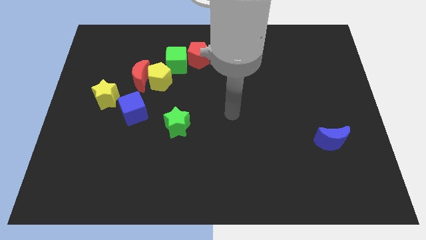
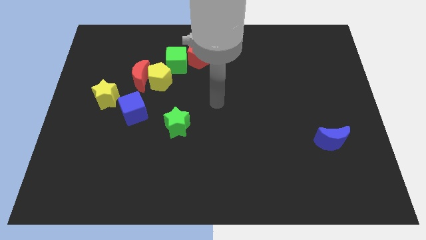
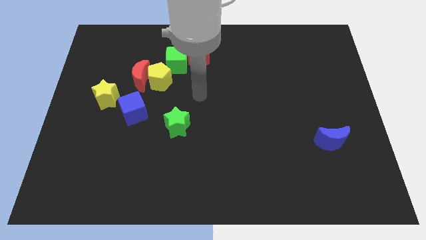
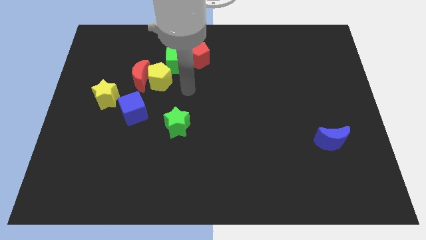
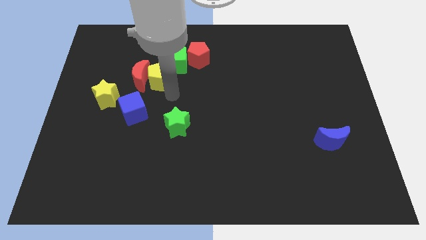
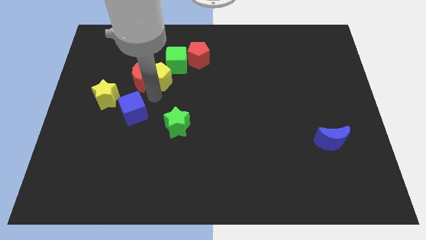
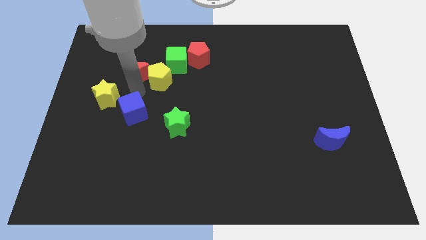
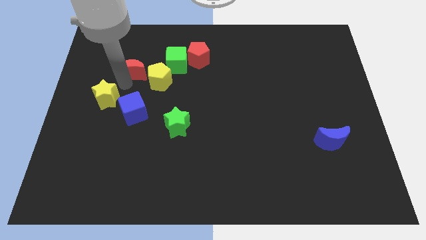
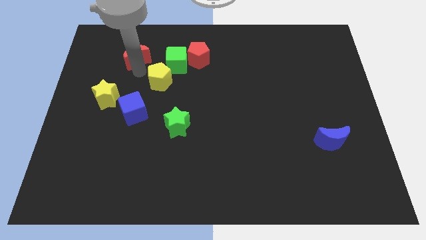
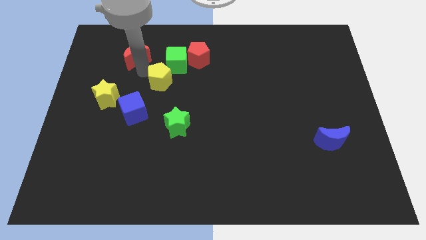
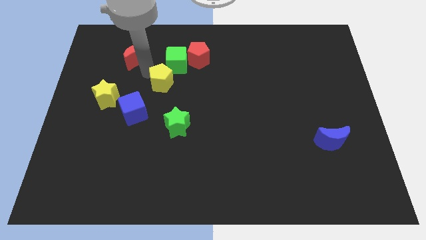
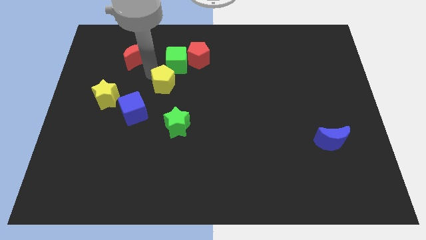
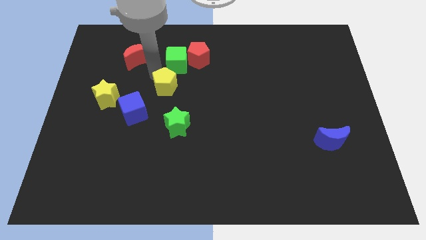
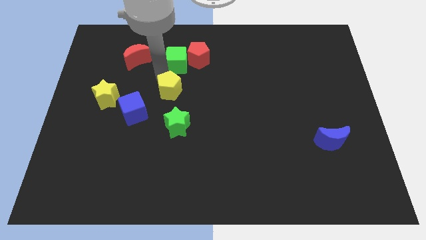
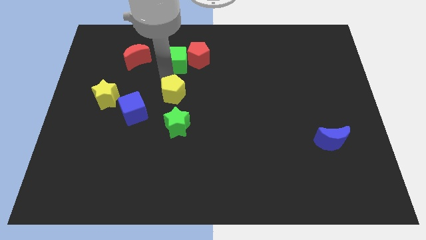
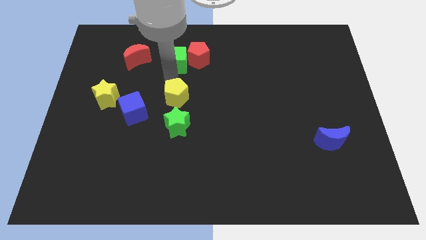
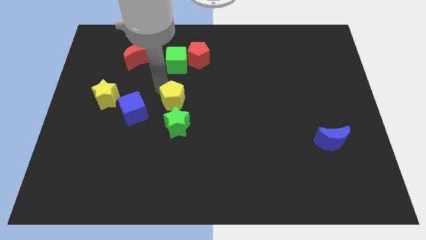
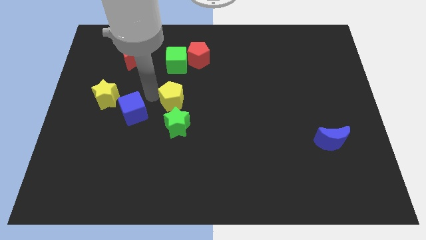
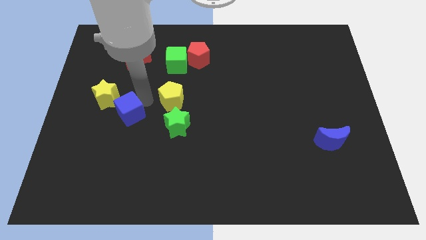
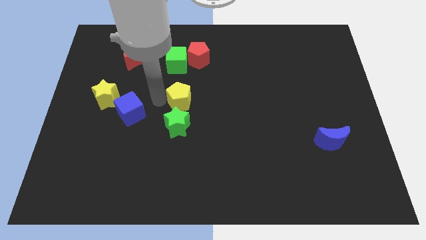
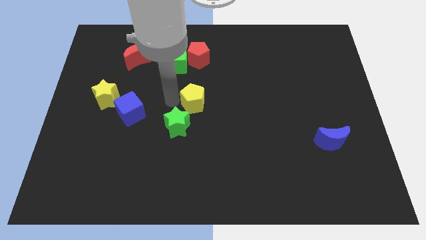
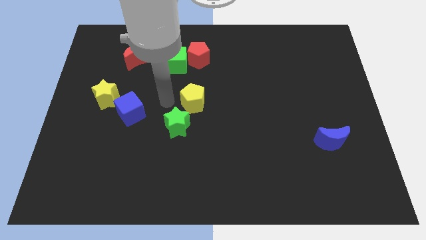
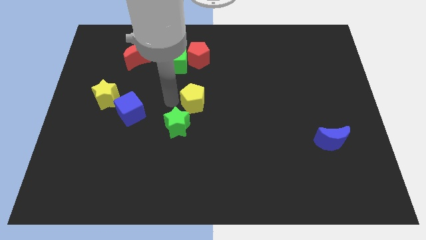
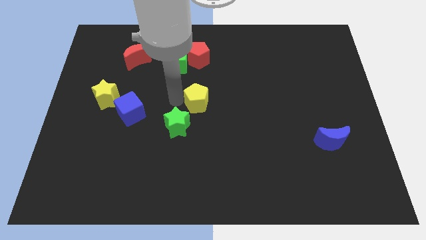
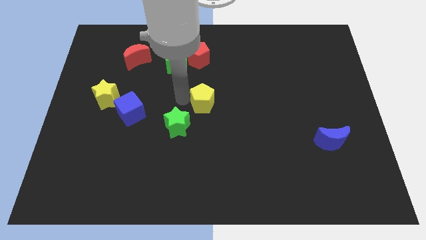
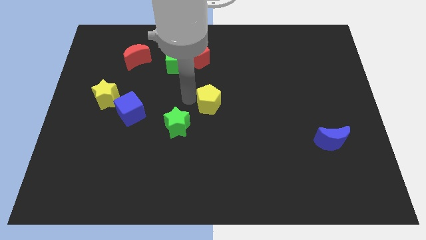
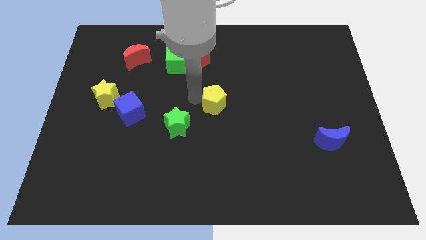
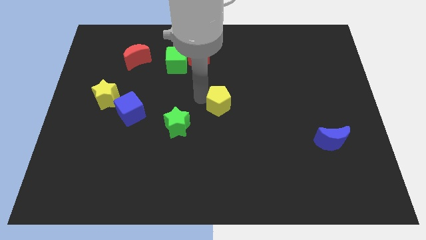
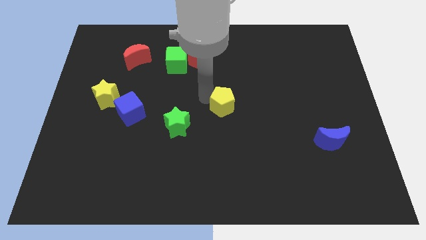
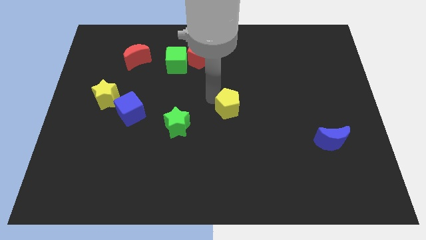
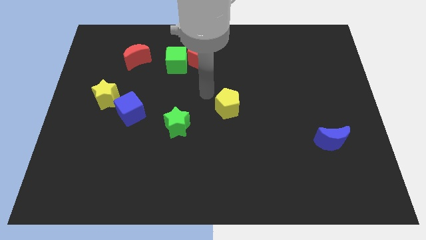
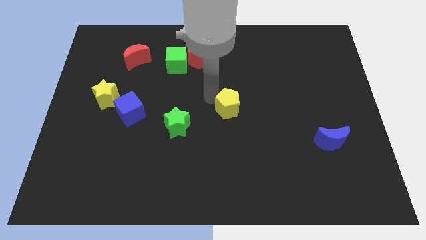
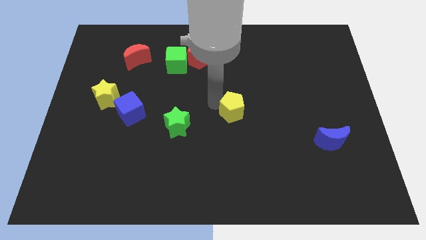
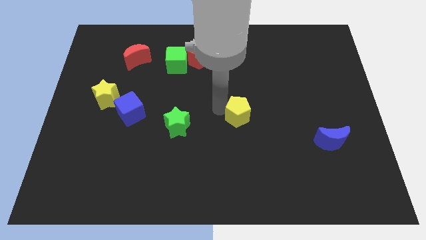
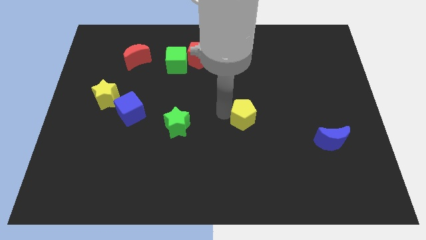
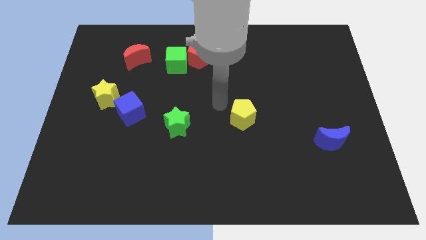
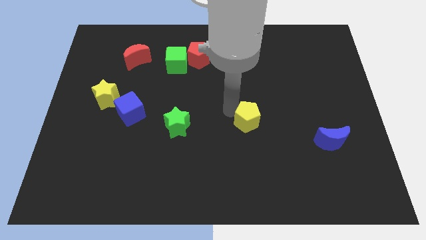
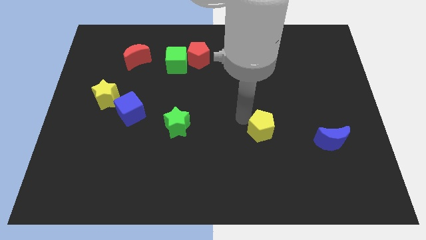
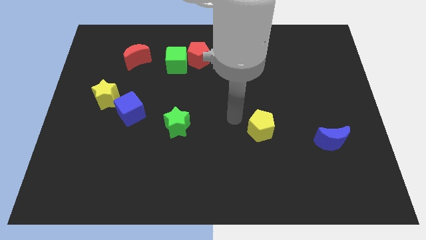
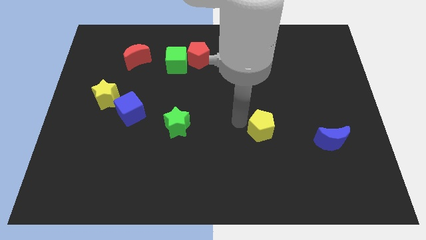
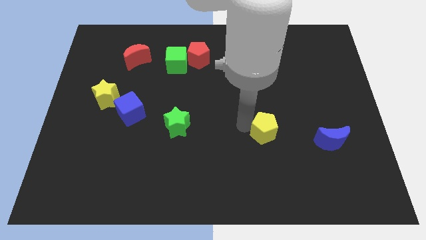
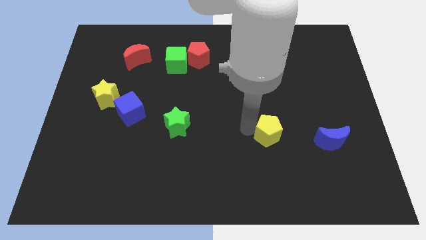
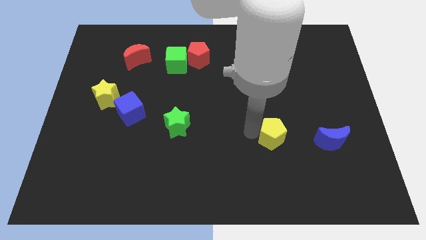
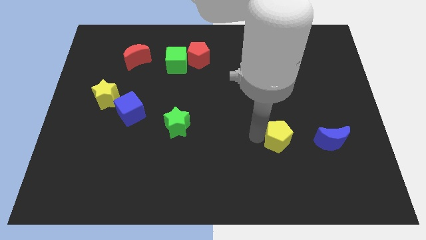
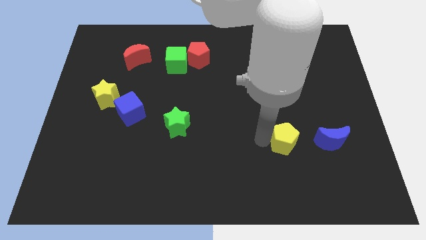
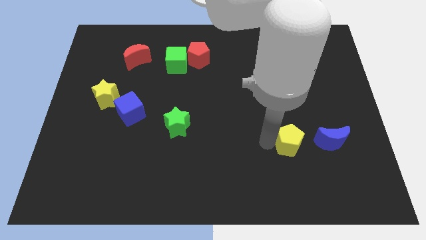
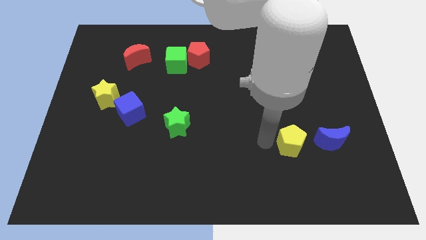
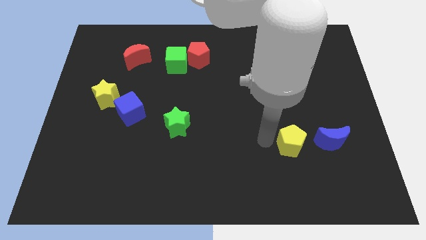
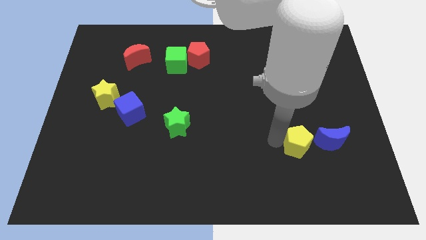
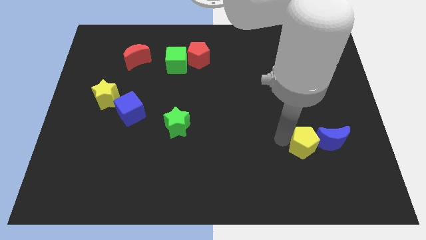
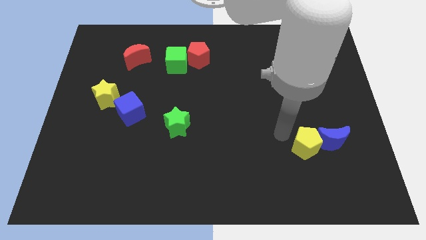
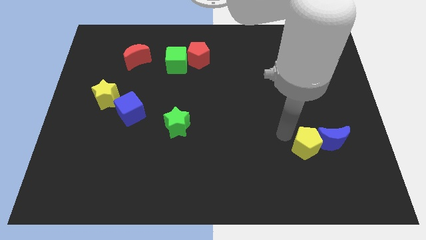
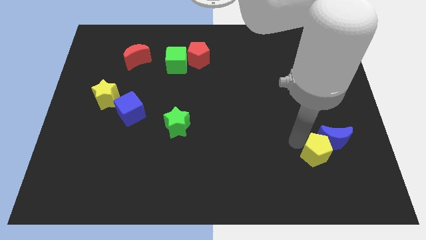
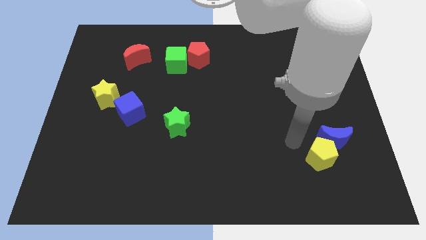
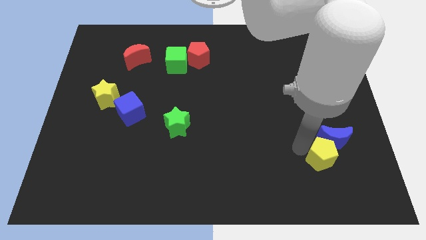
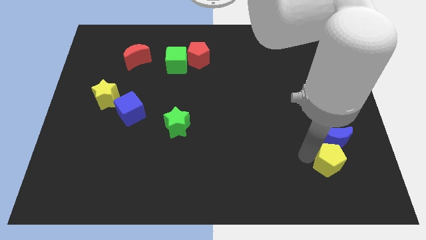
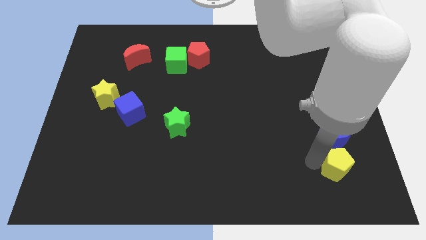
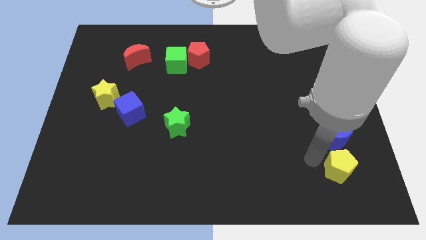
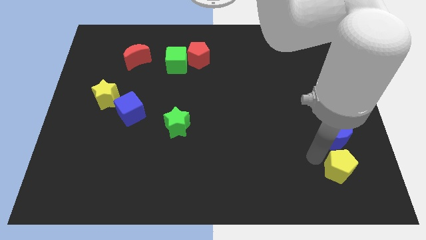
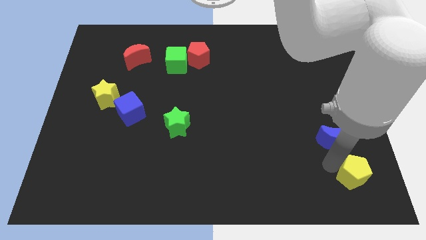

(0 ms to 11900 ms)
put the yellow pentagon to the bottom right

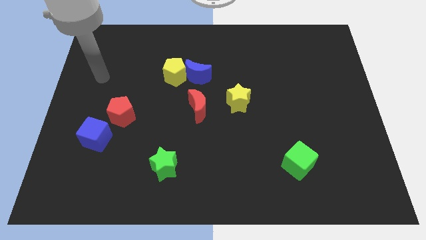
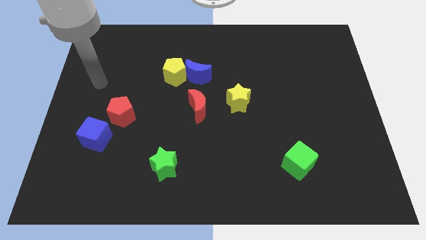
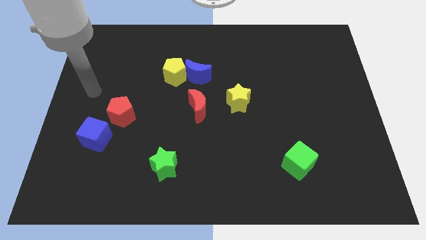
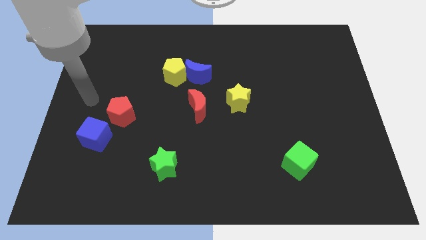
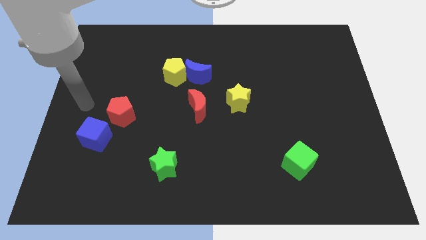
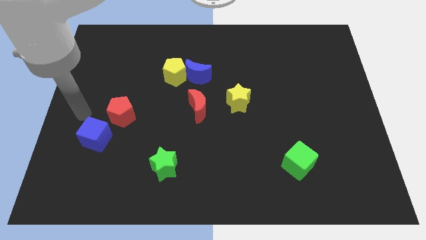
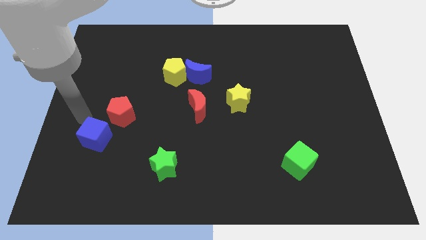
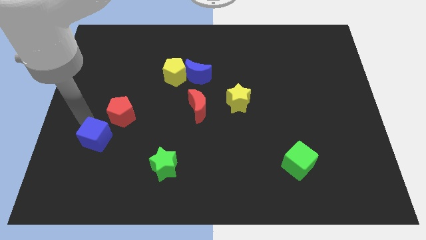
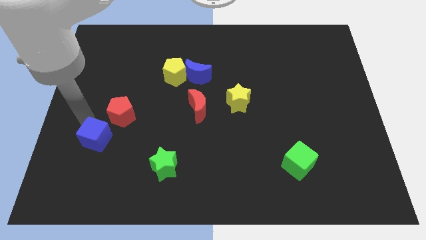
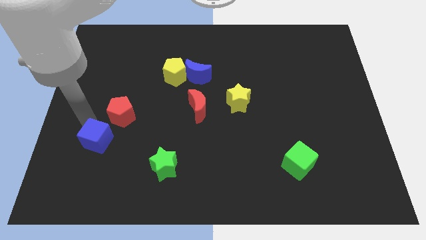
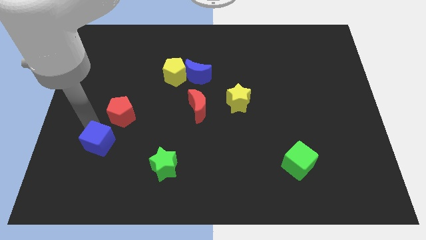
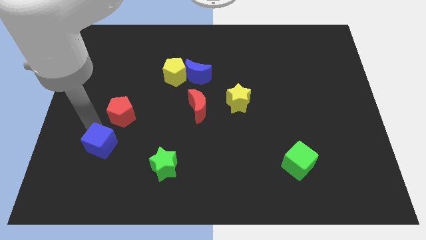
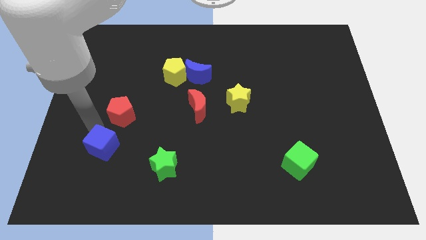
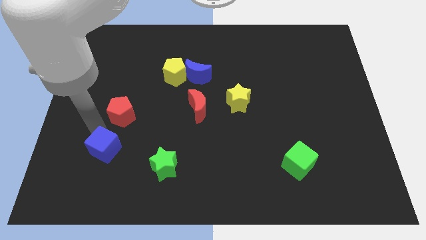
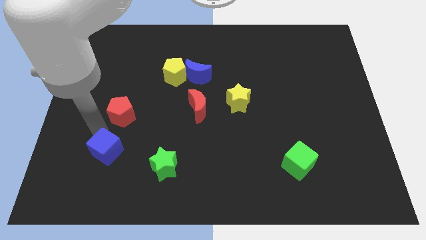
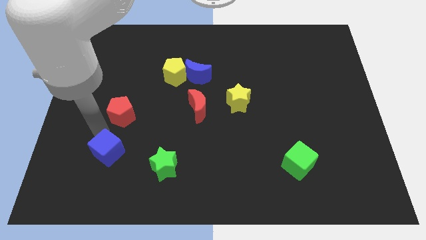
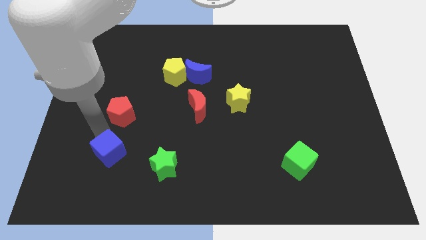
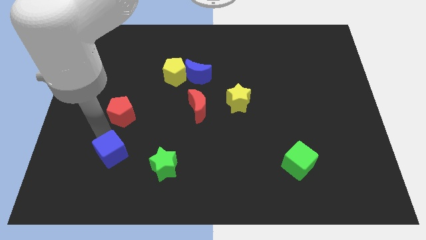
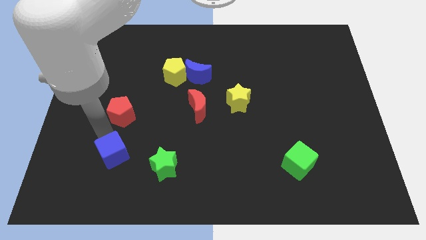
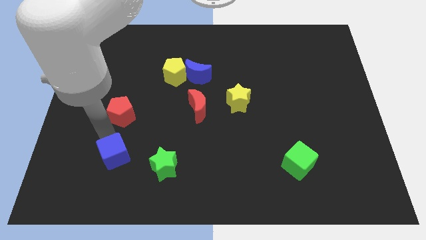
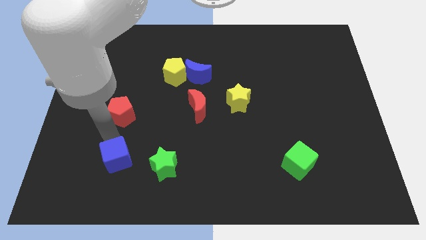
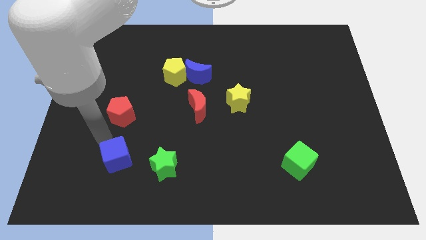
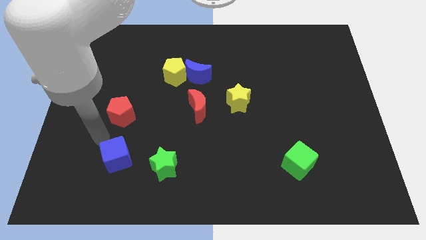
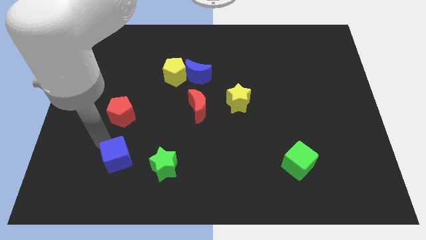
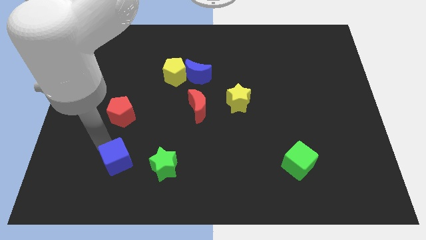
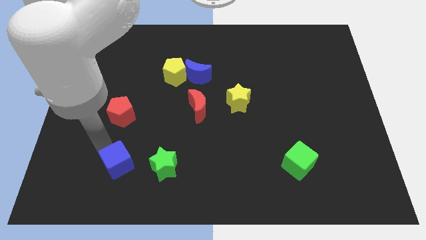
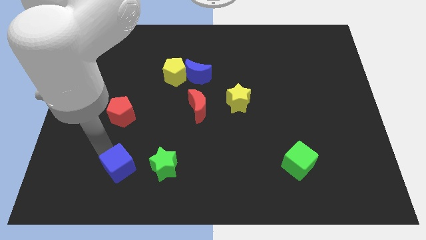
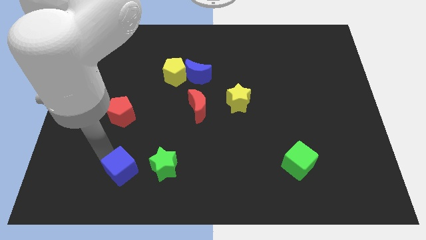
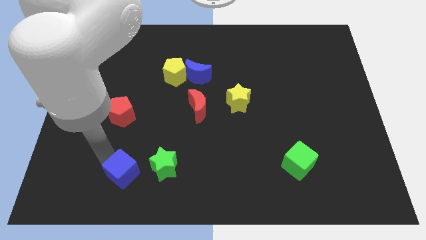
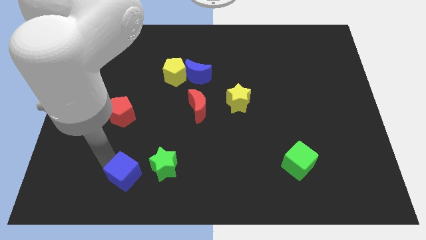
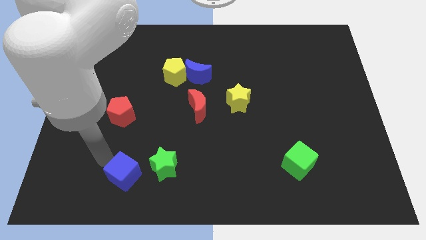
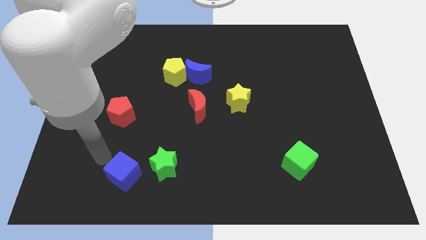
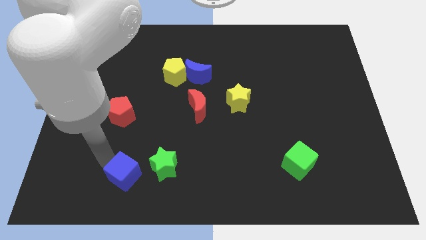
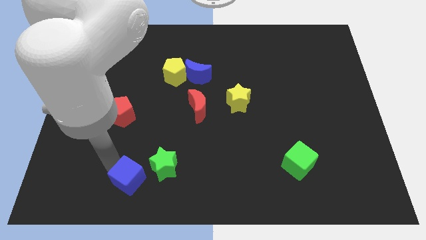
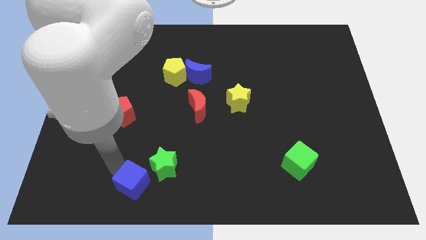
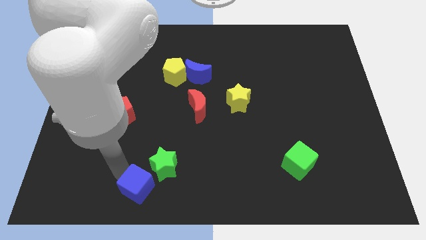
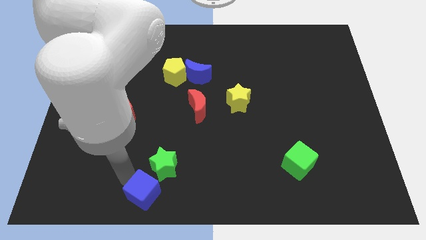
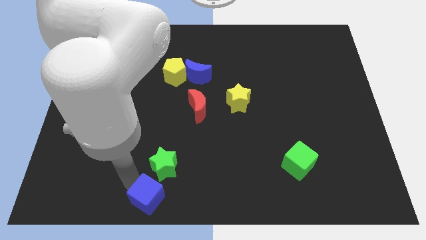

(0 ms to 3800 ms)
move the blue cube to the bottom side
